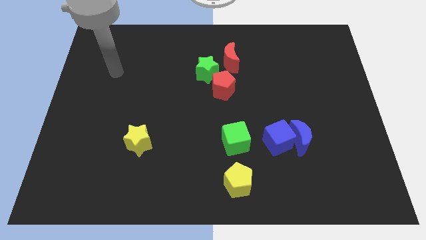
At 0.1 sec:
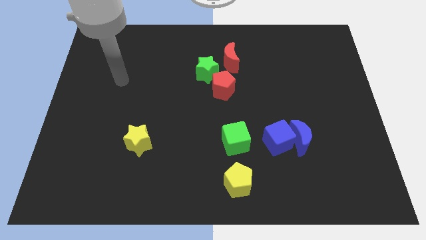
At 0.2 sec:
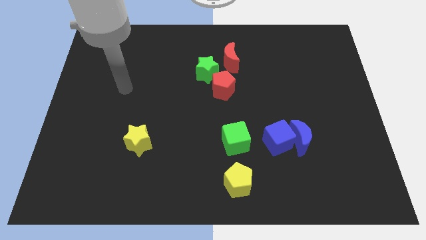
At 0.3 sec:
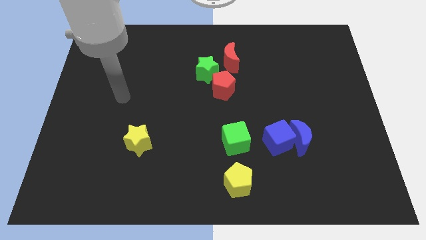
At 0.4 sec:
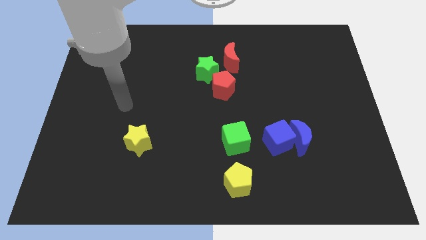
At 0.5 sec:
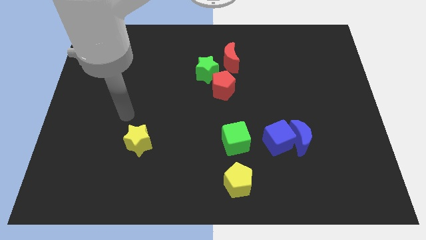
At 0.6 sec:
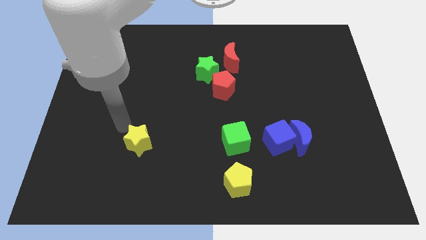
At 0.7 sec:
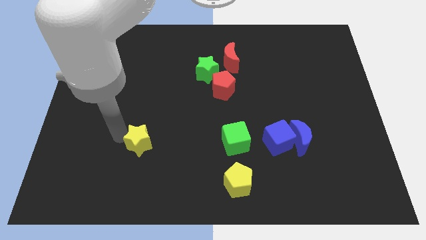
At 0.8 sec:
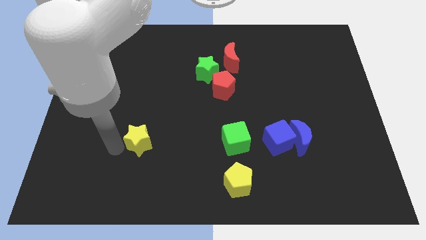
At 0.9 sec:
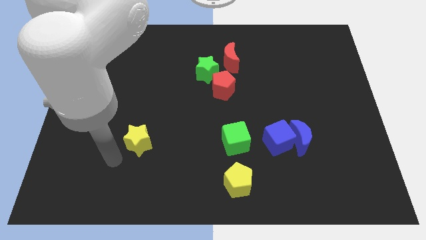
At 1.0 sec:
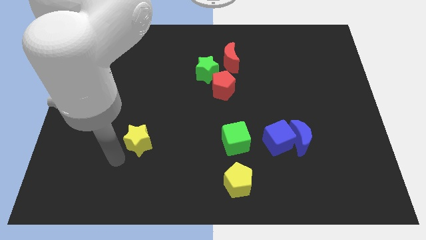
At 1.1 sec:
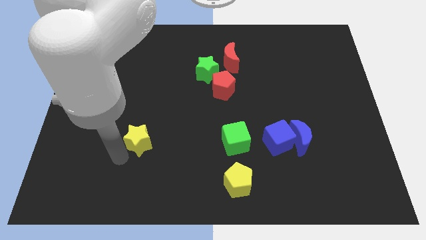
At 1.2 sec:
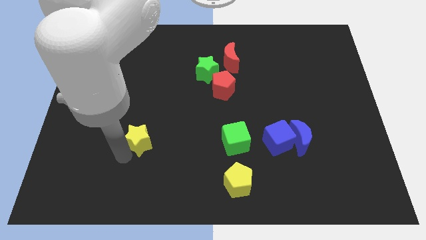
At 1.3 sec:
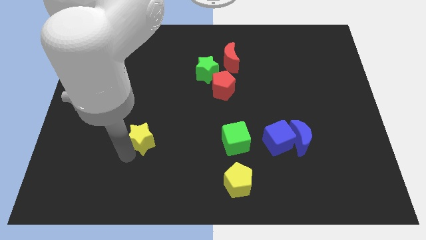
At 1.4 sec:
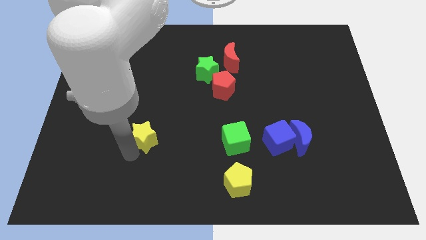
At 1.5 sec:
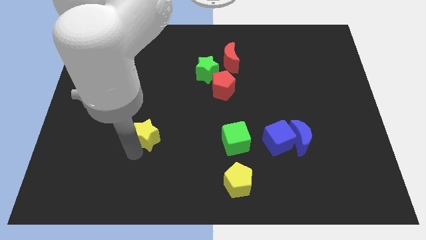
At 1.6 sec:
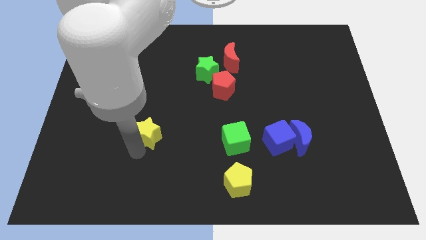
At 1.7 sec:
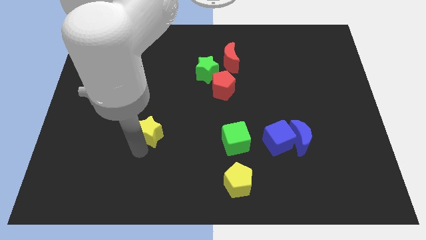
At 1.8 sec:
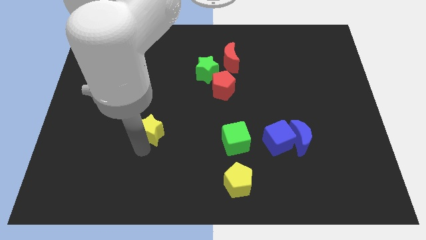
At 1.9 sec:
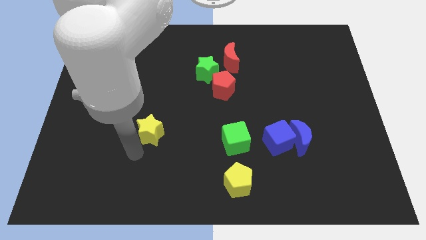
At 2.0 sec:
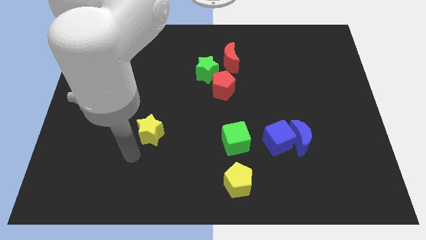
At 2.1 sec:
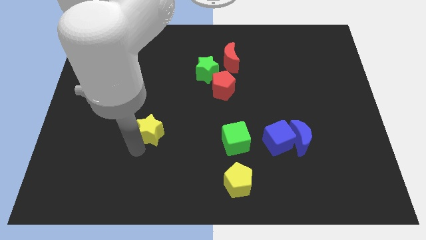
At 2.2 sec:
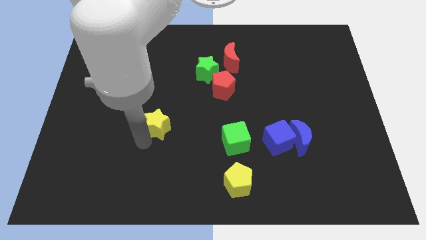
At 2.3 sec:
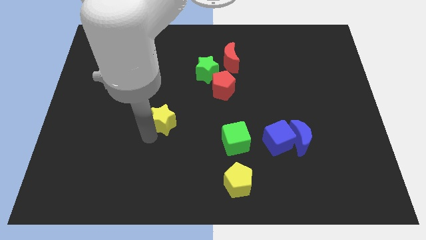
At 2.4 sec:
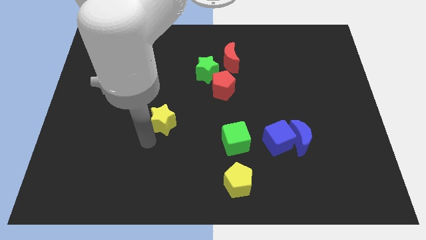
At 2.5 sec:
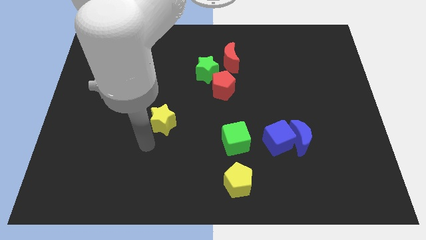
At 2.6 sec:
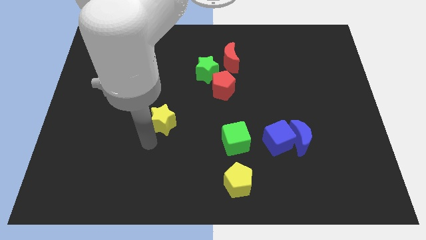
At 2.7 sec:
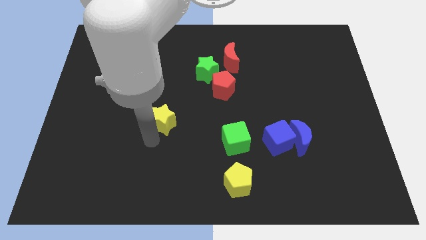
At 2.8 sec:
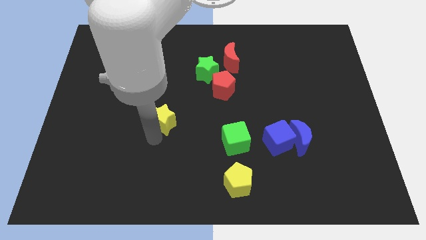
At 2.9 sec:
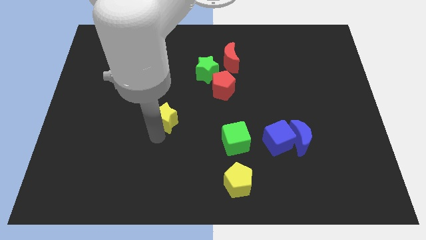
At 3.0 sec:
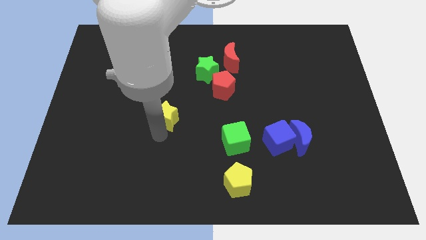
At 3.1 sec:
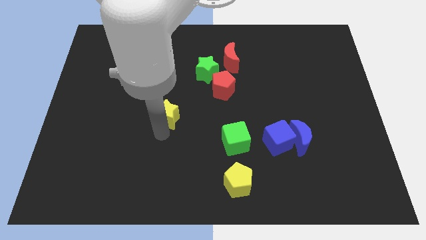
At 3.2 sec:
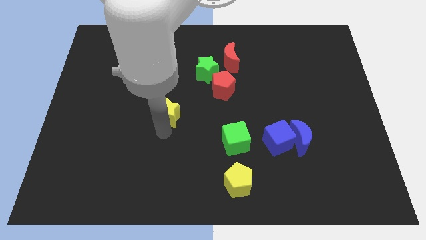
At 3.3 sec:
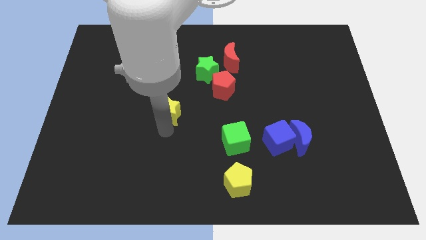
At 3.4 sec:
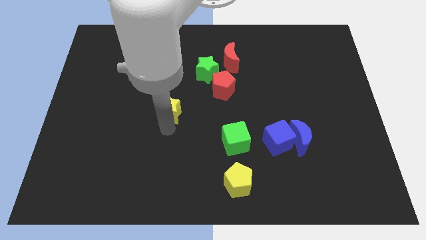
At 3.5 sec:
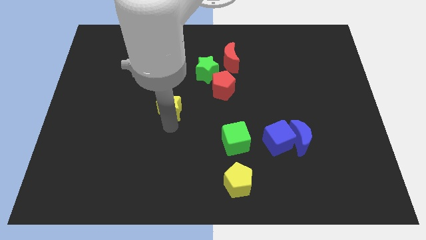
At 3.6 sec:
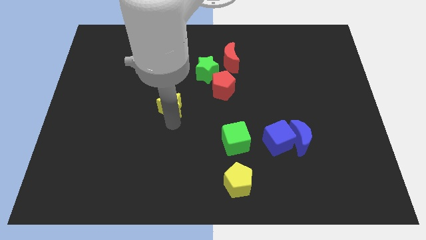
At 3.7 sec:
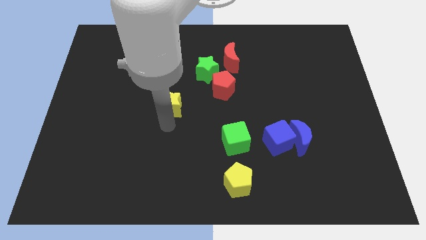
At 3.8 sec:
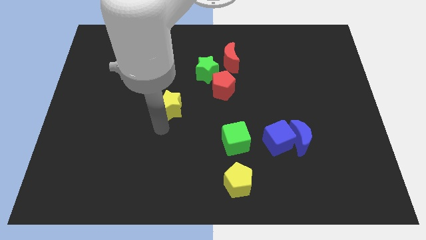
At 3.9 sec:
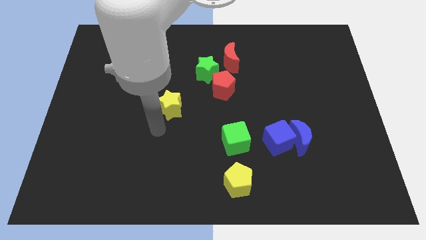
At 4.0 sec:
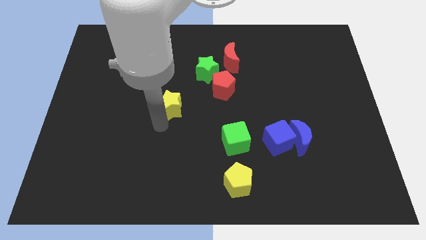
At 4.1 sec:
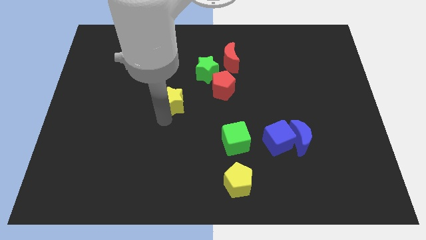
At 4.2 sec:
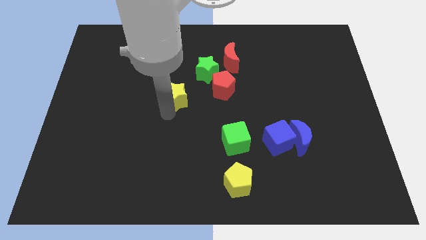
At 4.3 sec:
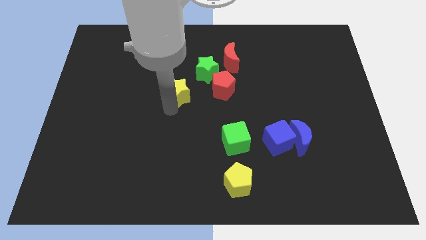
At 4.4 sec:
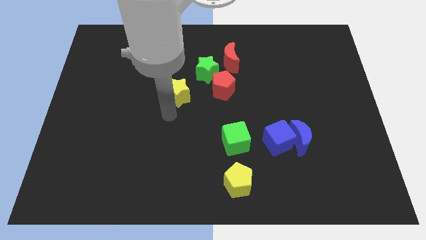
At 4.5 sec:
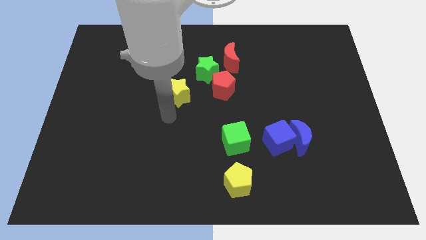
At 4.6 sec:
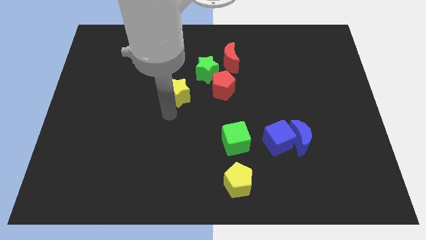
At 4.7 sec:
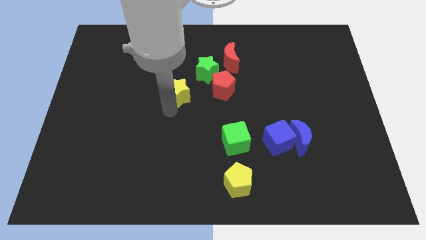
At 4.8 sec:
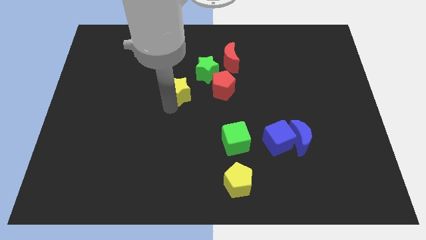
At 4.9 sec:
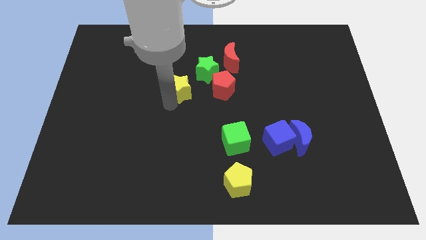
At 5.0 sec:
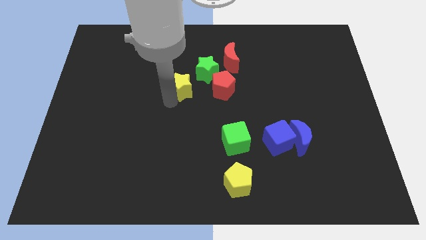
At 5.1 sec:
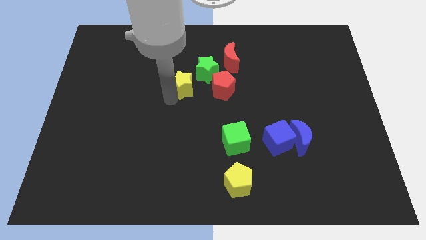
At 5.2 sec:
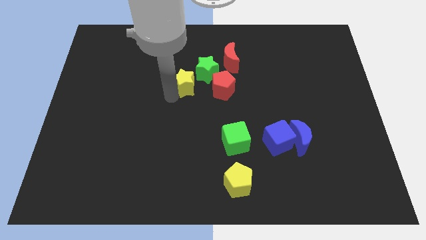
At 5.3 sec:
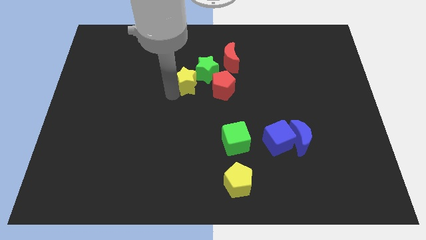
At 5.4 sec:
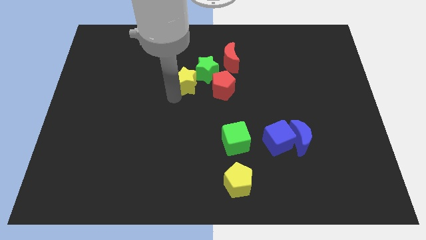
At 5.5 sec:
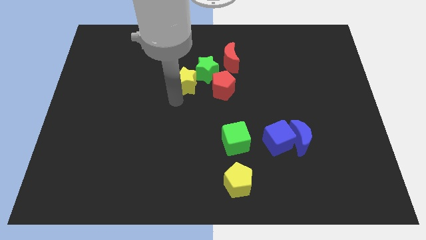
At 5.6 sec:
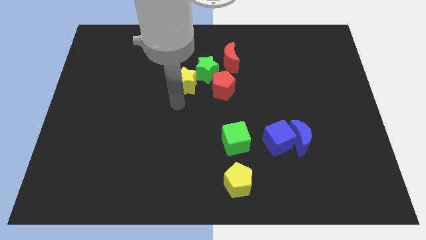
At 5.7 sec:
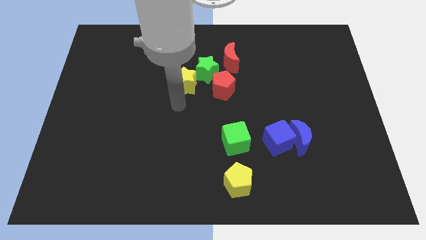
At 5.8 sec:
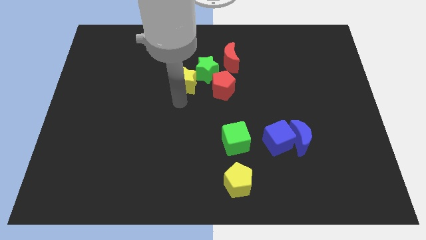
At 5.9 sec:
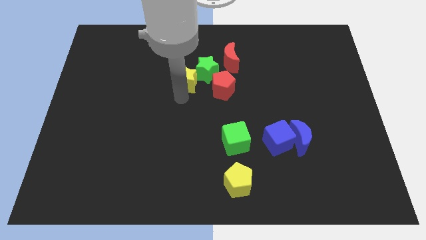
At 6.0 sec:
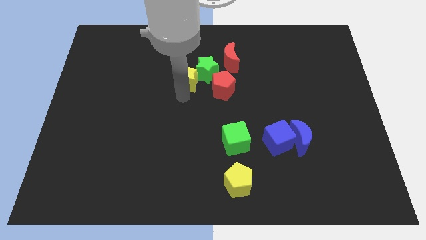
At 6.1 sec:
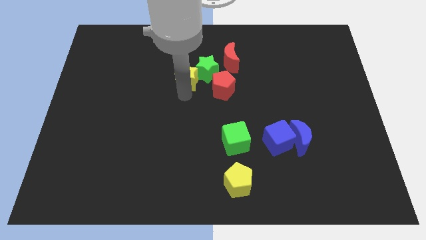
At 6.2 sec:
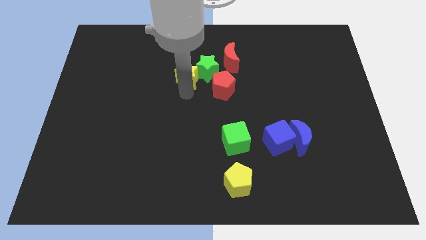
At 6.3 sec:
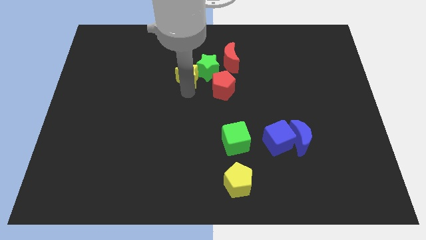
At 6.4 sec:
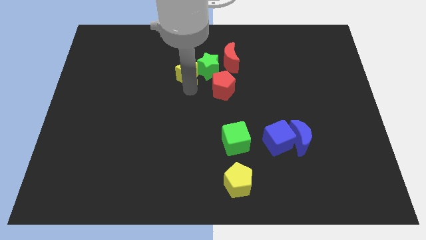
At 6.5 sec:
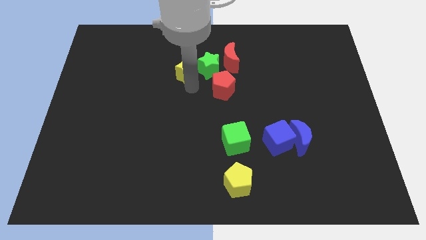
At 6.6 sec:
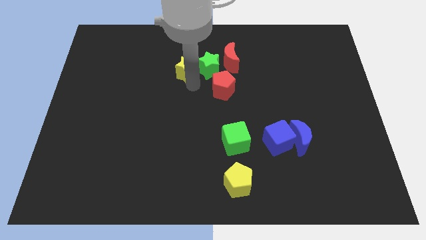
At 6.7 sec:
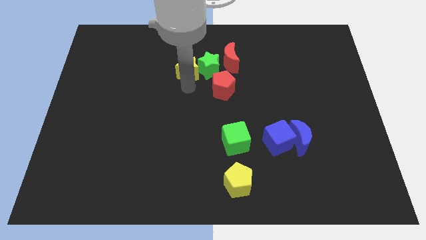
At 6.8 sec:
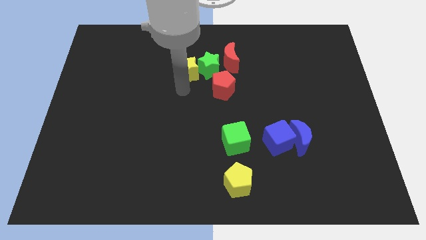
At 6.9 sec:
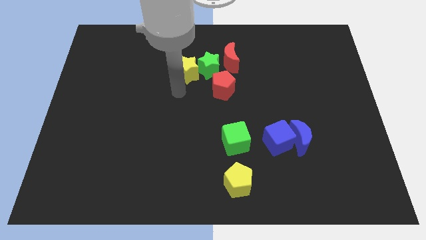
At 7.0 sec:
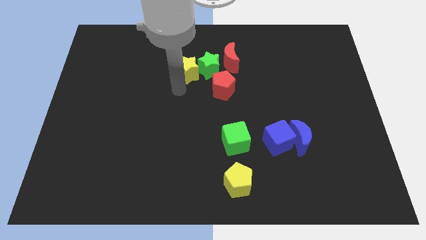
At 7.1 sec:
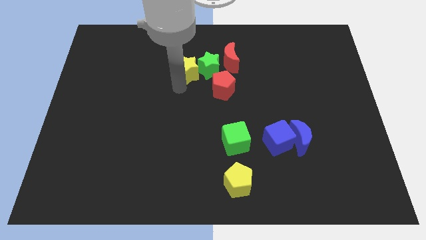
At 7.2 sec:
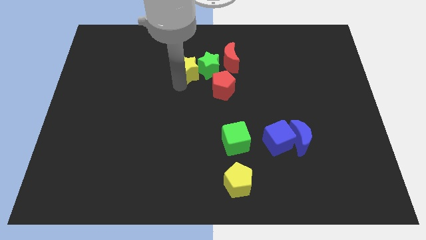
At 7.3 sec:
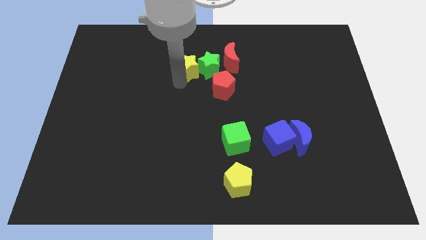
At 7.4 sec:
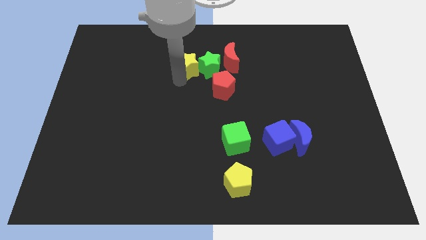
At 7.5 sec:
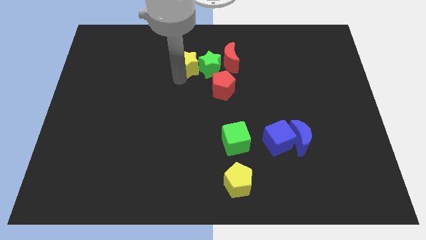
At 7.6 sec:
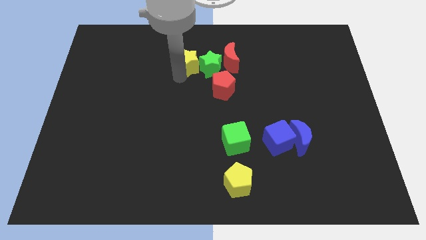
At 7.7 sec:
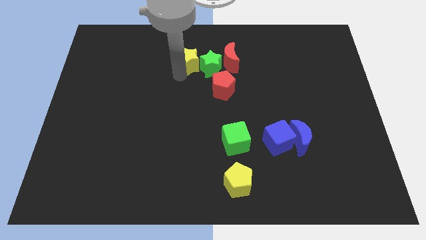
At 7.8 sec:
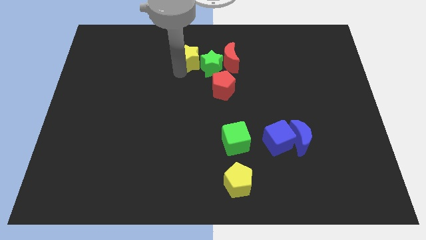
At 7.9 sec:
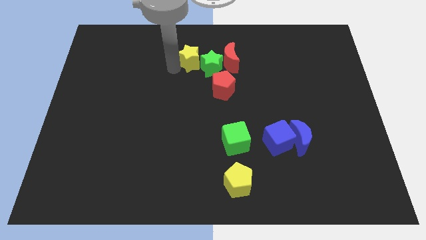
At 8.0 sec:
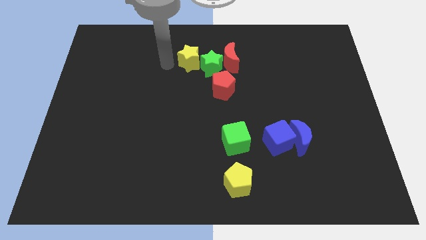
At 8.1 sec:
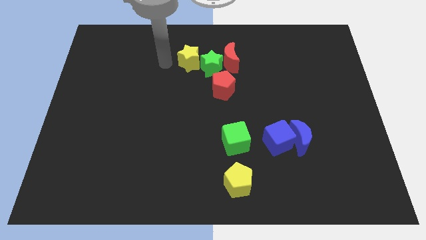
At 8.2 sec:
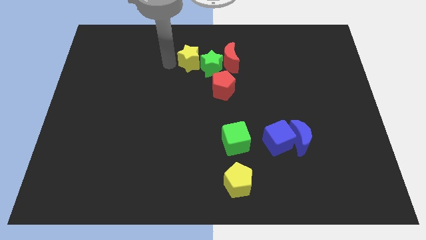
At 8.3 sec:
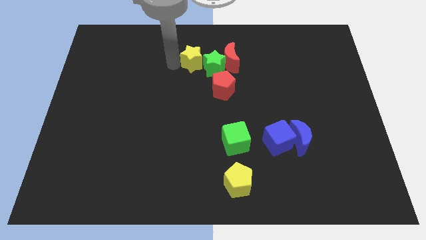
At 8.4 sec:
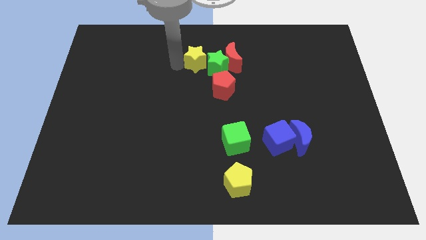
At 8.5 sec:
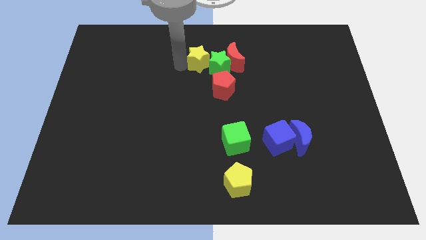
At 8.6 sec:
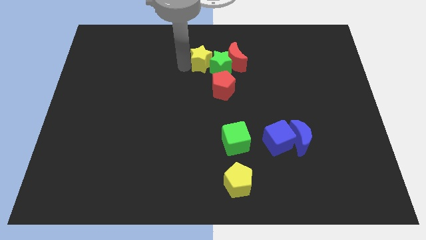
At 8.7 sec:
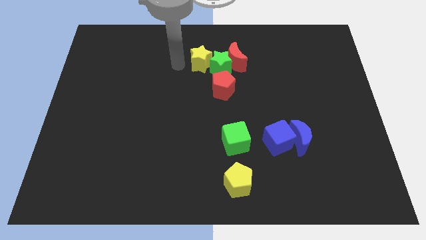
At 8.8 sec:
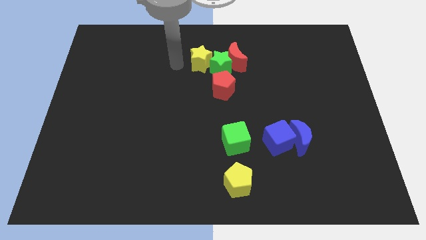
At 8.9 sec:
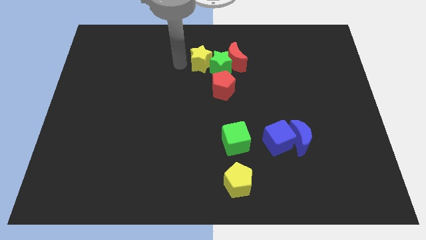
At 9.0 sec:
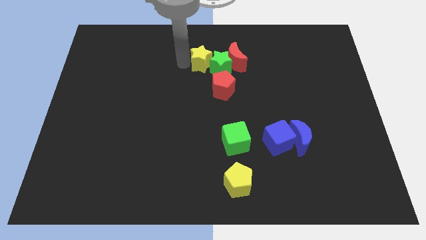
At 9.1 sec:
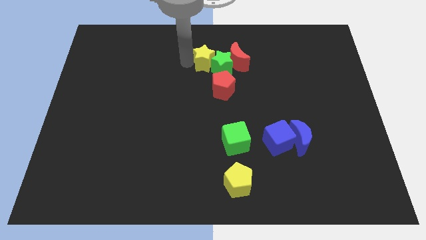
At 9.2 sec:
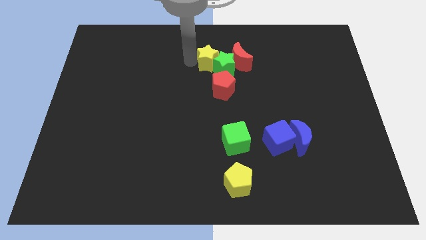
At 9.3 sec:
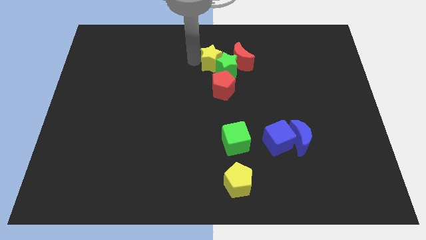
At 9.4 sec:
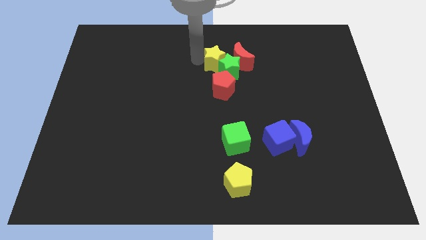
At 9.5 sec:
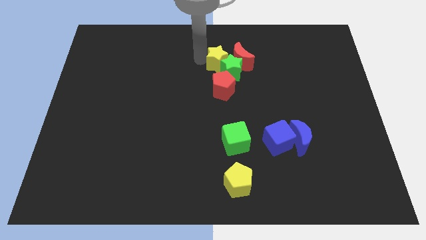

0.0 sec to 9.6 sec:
put the yellow star next to the red moon
